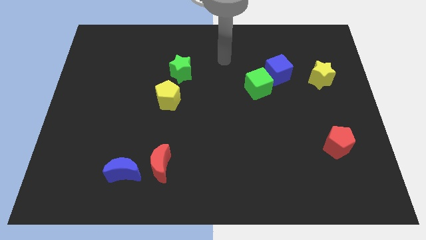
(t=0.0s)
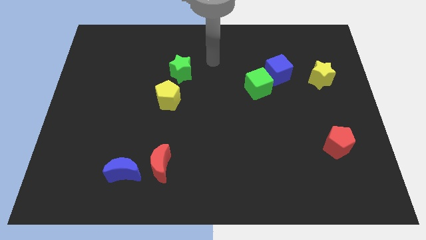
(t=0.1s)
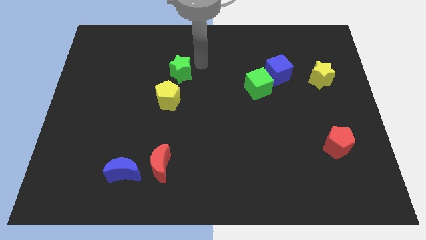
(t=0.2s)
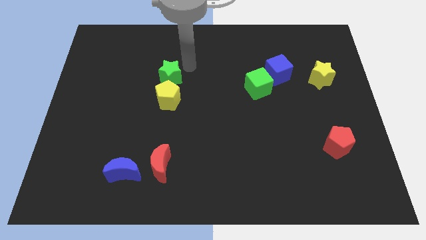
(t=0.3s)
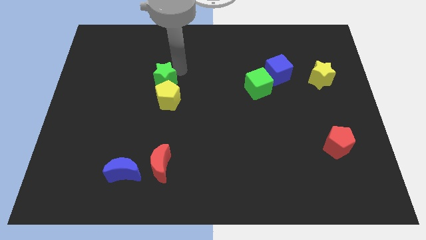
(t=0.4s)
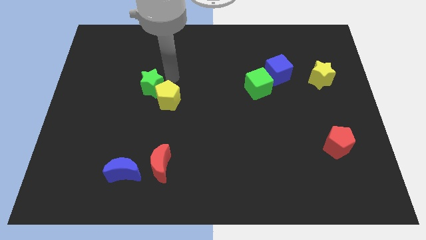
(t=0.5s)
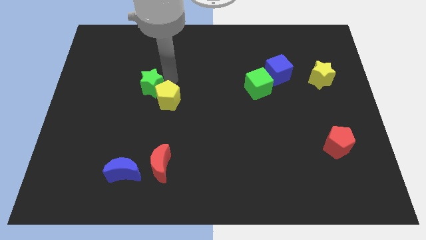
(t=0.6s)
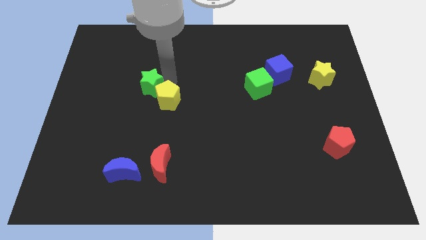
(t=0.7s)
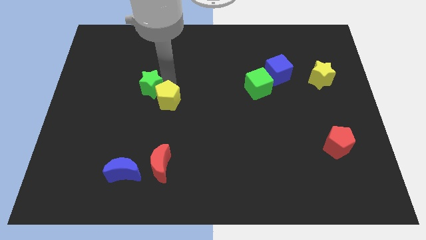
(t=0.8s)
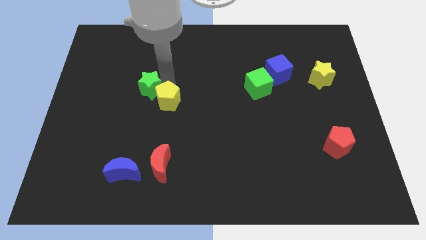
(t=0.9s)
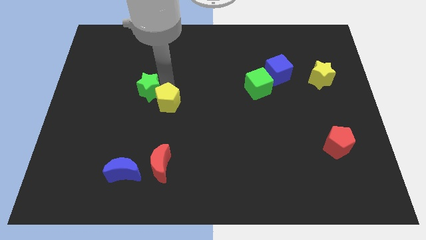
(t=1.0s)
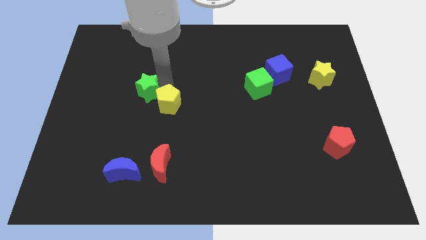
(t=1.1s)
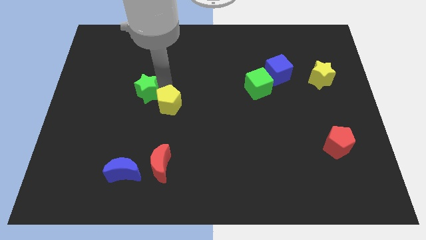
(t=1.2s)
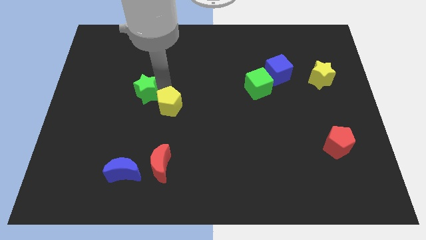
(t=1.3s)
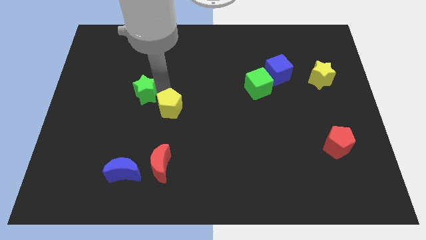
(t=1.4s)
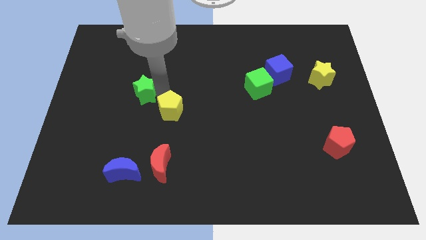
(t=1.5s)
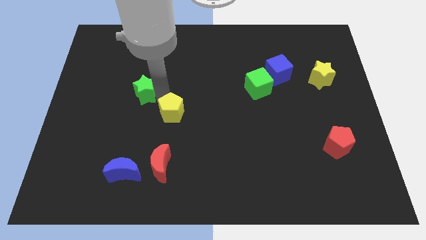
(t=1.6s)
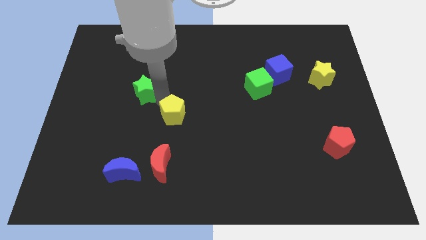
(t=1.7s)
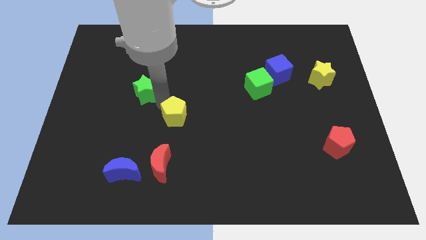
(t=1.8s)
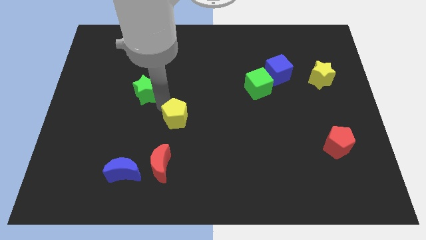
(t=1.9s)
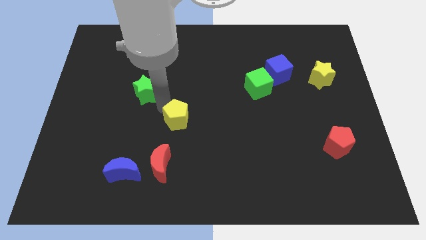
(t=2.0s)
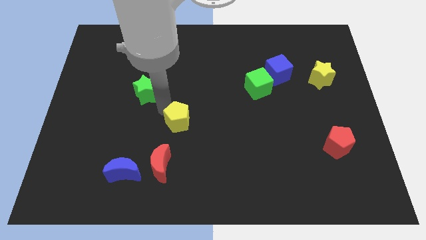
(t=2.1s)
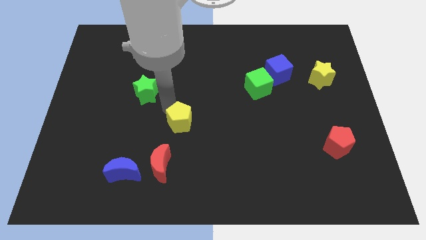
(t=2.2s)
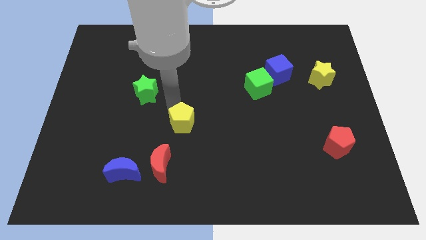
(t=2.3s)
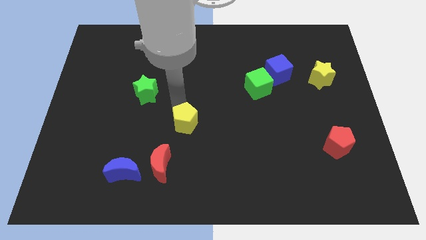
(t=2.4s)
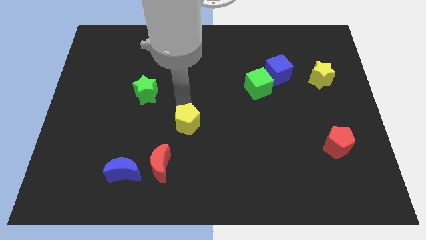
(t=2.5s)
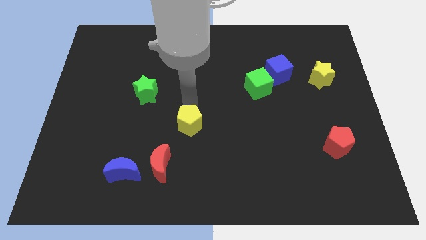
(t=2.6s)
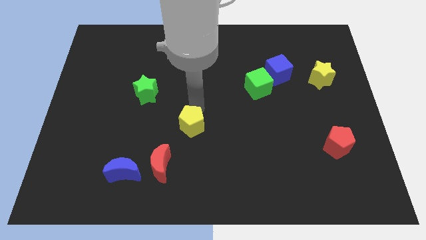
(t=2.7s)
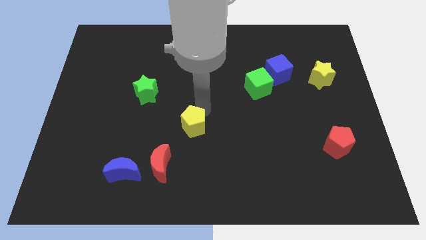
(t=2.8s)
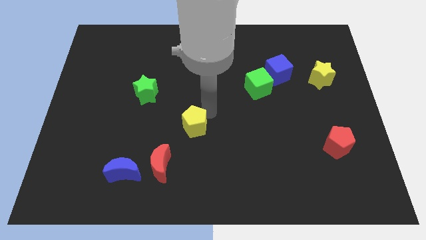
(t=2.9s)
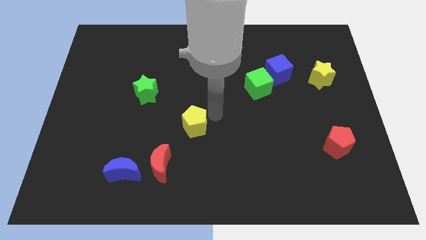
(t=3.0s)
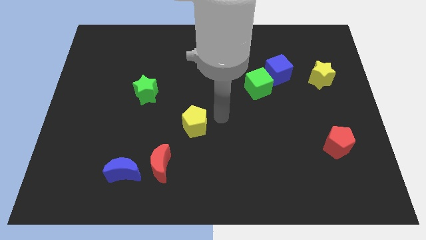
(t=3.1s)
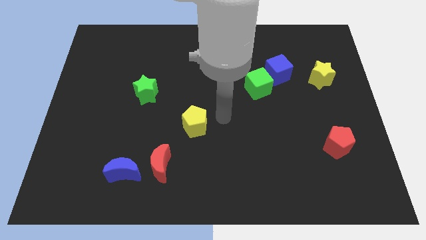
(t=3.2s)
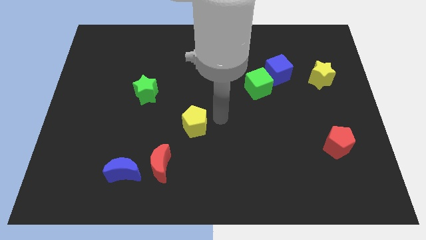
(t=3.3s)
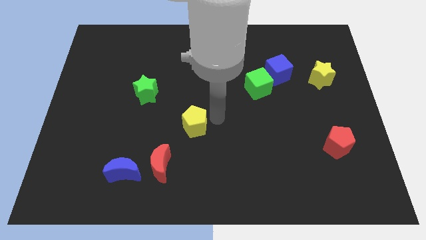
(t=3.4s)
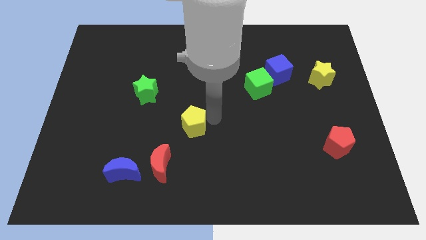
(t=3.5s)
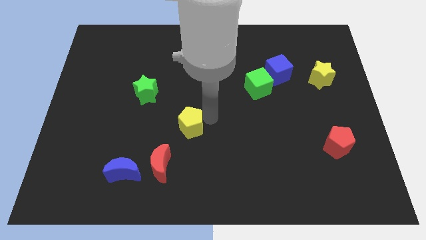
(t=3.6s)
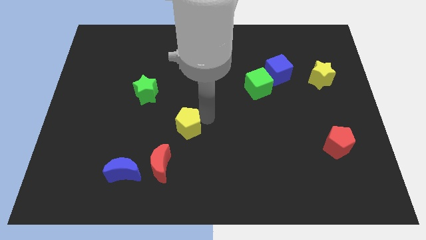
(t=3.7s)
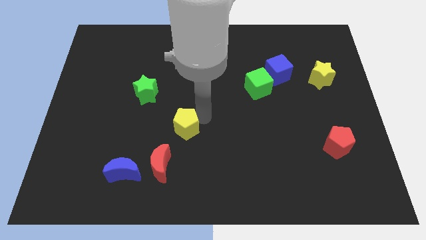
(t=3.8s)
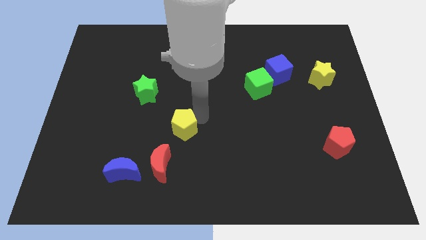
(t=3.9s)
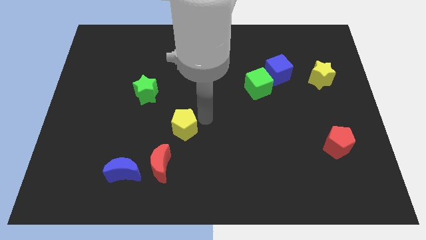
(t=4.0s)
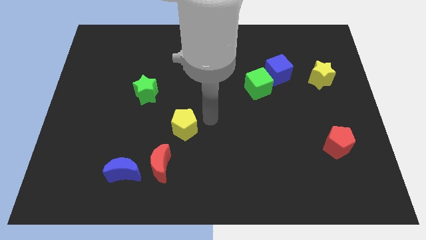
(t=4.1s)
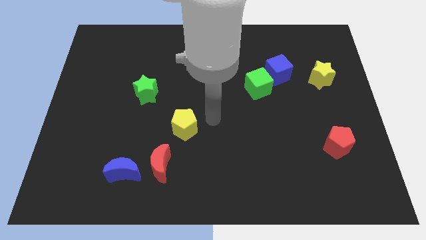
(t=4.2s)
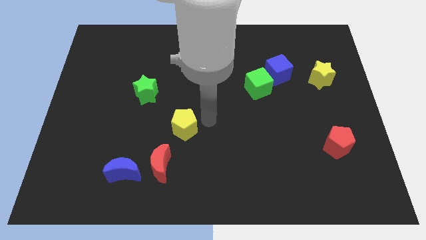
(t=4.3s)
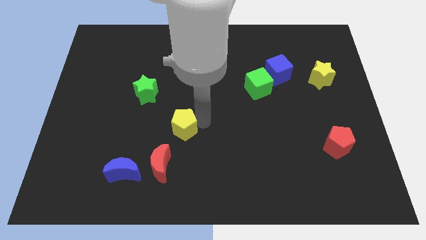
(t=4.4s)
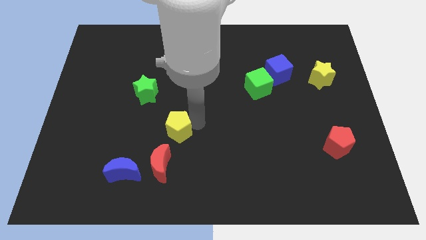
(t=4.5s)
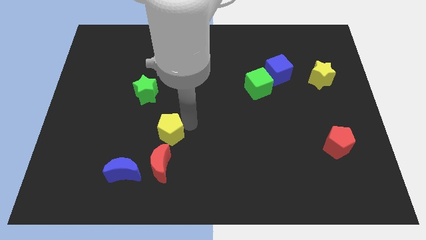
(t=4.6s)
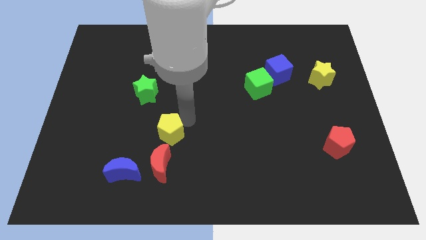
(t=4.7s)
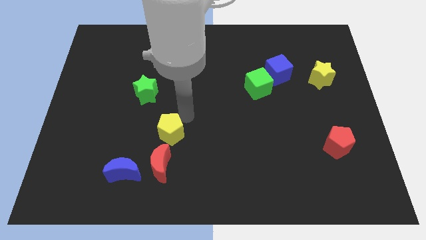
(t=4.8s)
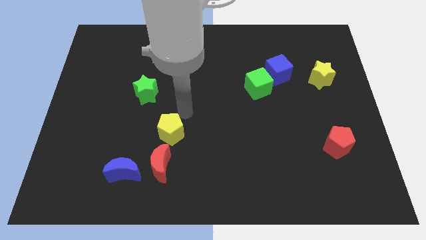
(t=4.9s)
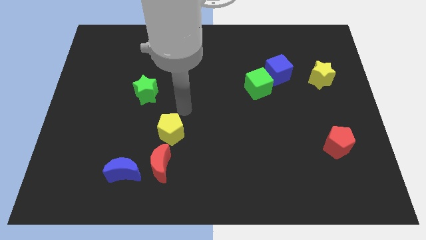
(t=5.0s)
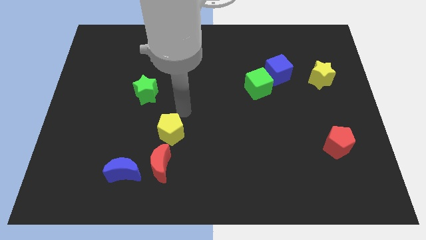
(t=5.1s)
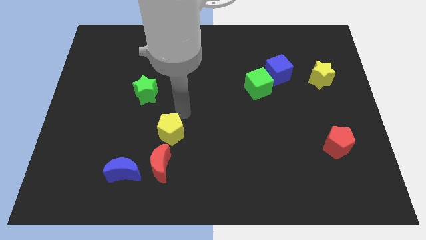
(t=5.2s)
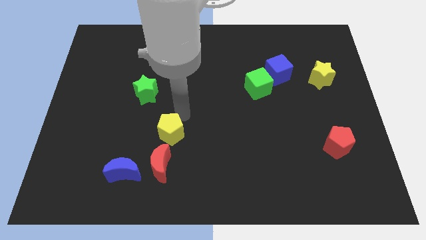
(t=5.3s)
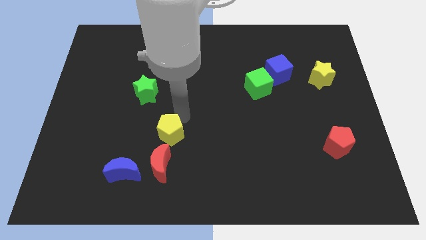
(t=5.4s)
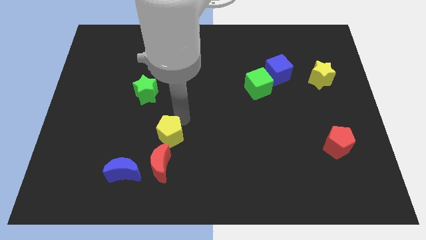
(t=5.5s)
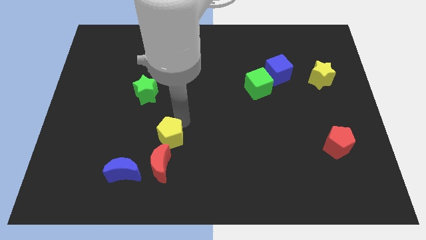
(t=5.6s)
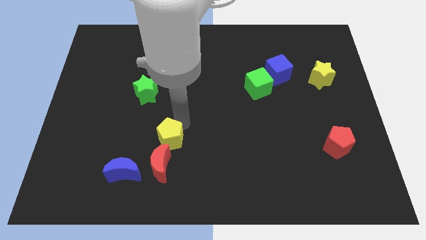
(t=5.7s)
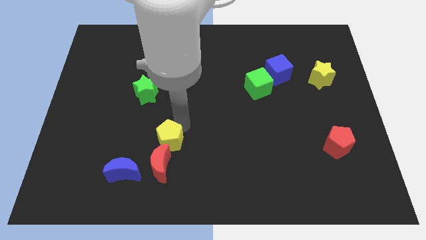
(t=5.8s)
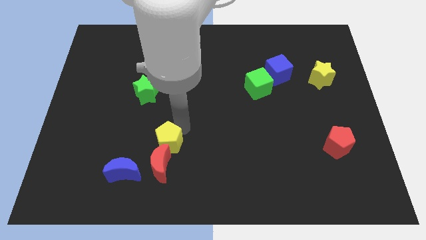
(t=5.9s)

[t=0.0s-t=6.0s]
slide the yellow pentagon close to the red moon

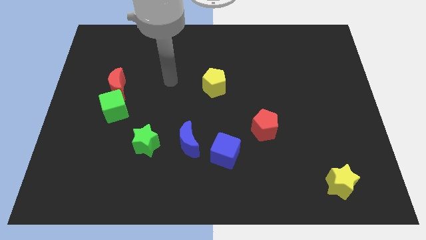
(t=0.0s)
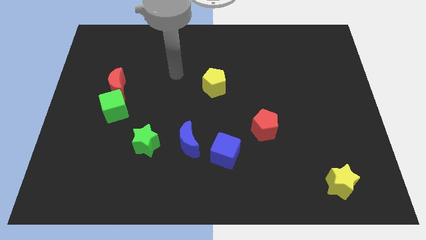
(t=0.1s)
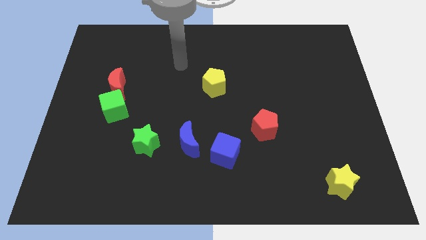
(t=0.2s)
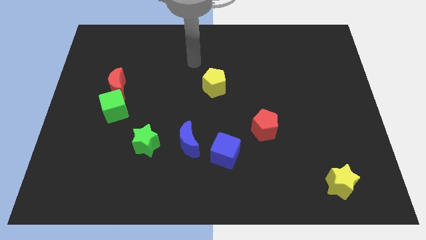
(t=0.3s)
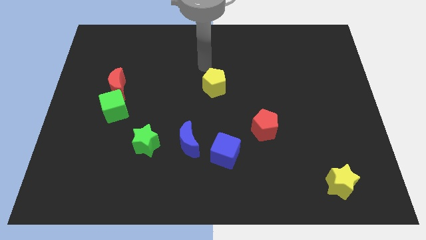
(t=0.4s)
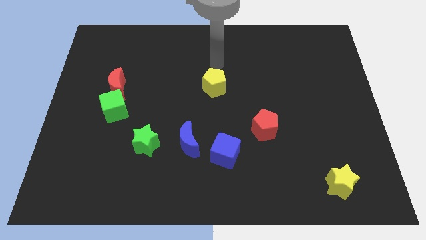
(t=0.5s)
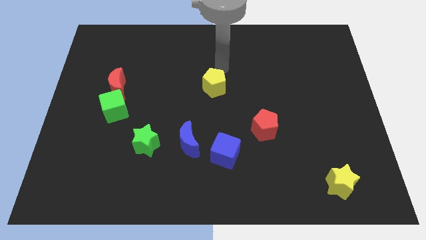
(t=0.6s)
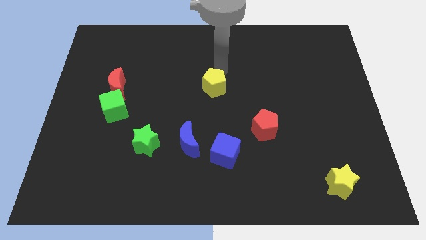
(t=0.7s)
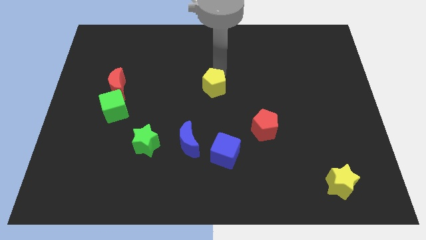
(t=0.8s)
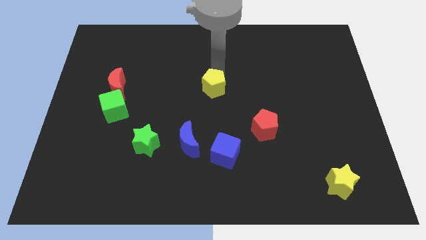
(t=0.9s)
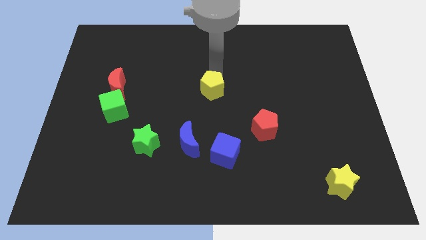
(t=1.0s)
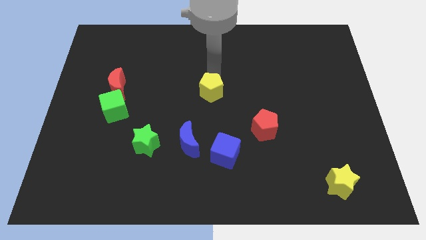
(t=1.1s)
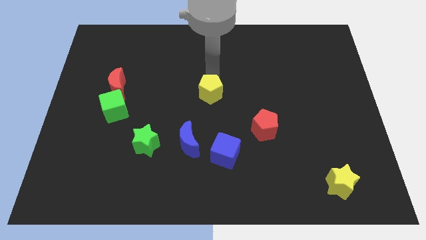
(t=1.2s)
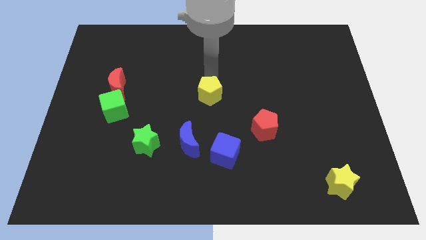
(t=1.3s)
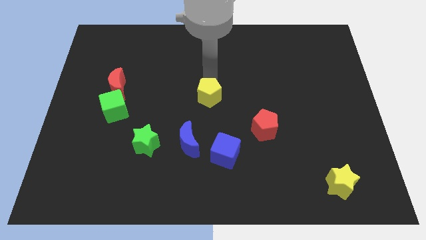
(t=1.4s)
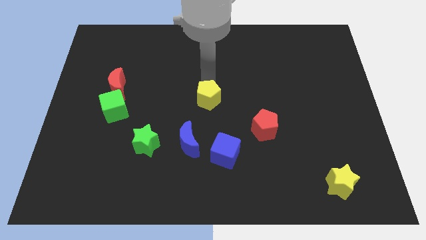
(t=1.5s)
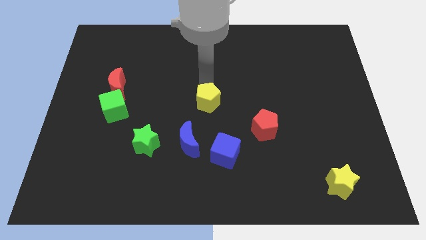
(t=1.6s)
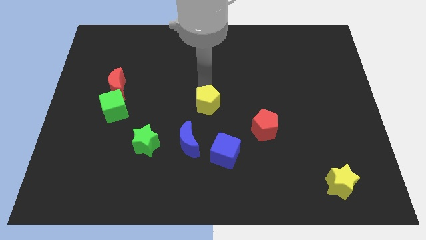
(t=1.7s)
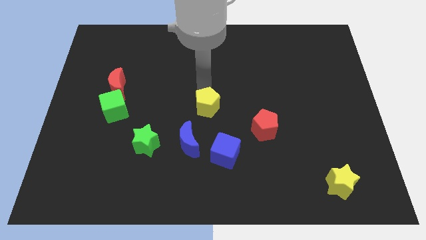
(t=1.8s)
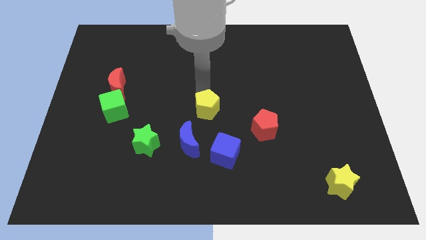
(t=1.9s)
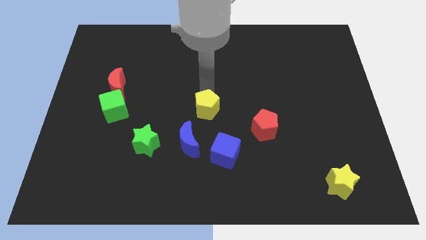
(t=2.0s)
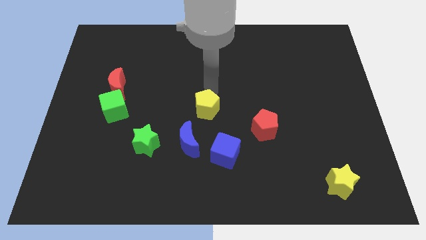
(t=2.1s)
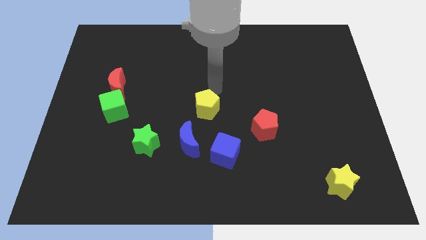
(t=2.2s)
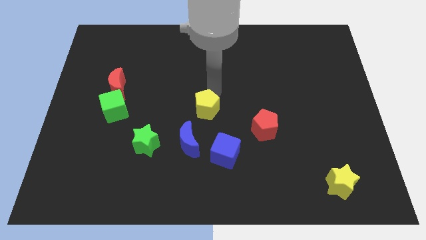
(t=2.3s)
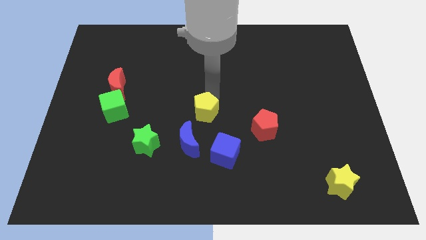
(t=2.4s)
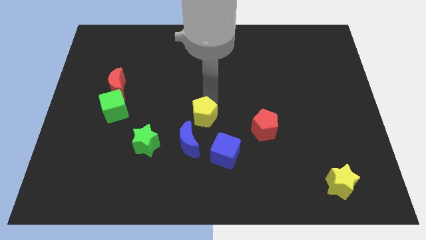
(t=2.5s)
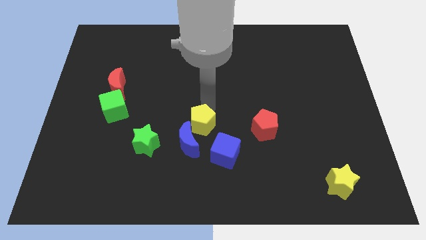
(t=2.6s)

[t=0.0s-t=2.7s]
push the yellow pentagon close to the blue moon
